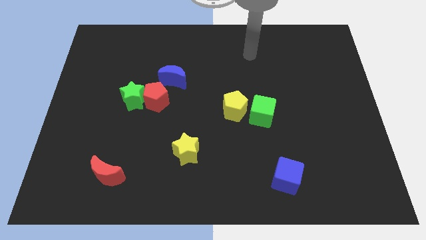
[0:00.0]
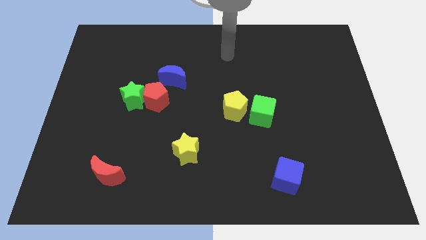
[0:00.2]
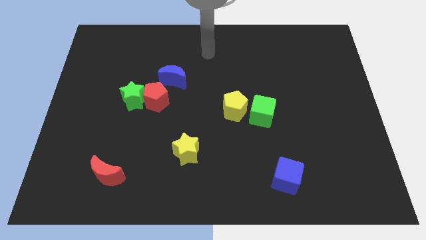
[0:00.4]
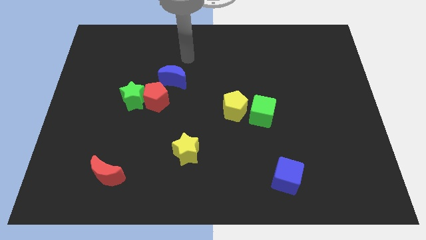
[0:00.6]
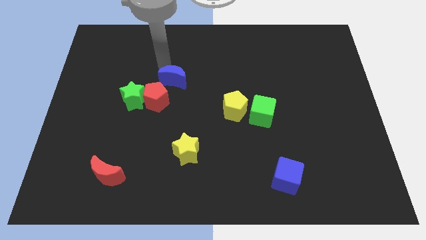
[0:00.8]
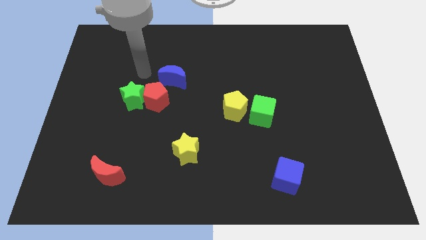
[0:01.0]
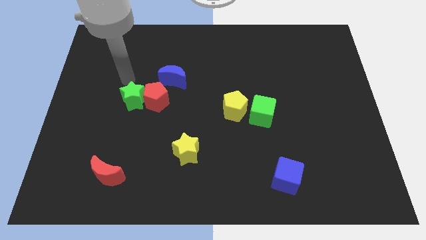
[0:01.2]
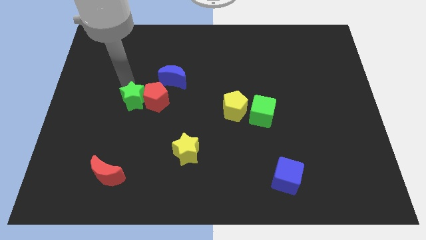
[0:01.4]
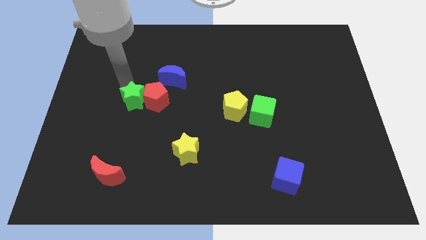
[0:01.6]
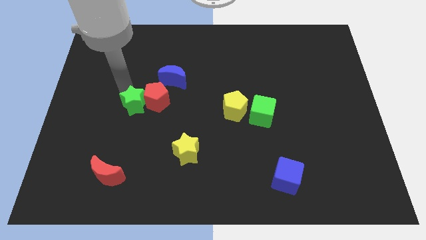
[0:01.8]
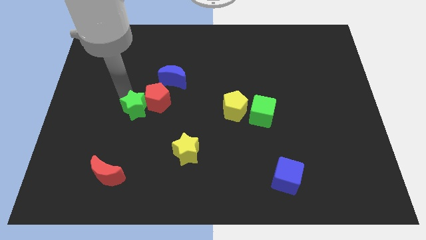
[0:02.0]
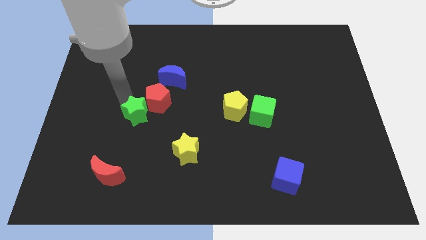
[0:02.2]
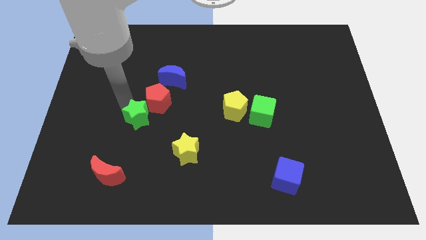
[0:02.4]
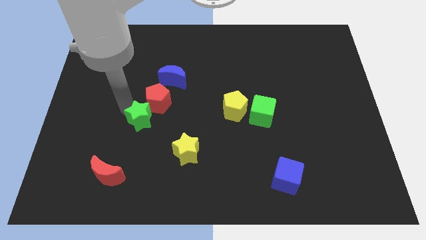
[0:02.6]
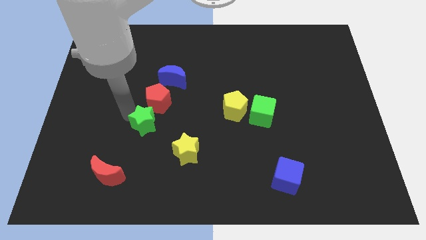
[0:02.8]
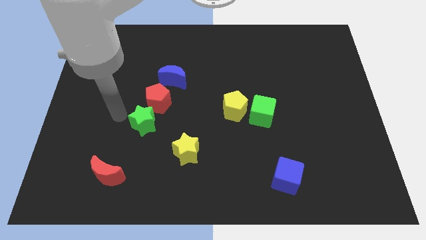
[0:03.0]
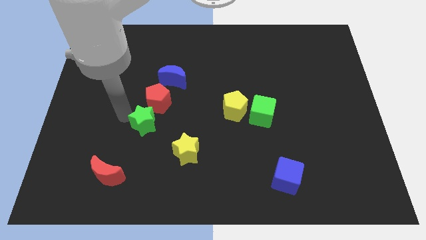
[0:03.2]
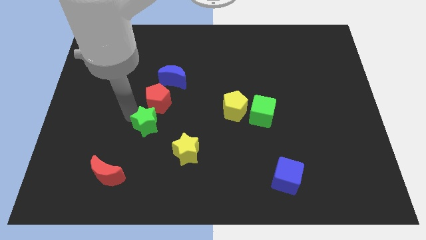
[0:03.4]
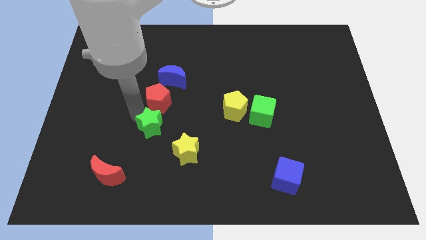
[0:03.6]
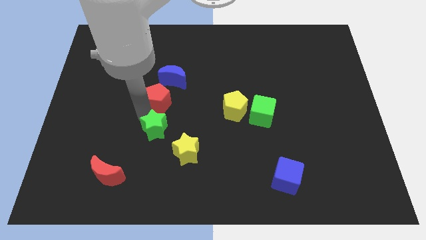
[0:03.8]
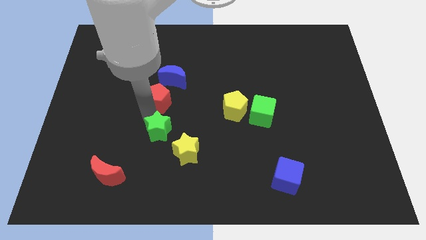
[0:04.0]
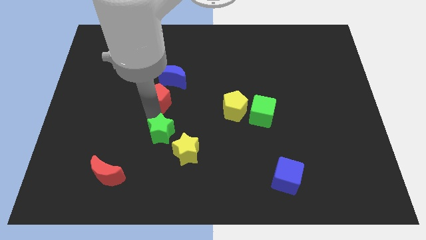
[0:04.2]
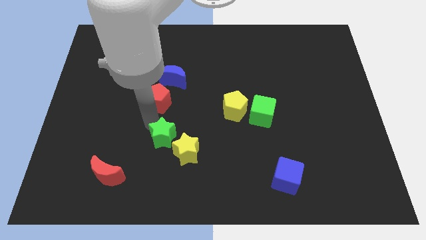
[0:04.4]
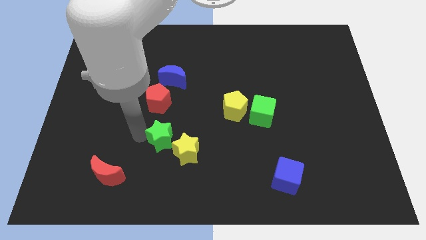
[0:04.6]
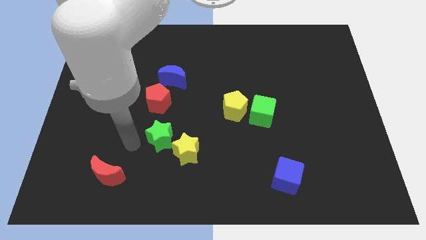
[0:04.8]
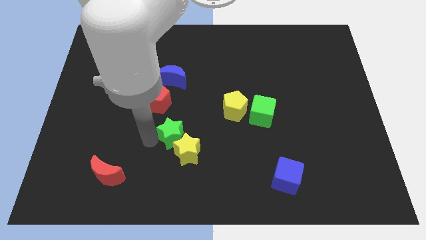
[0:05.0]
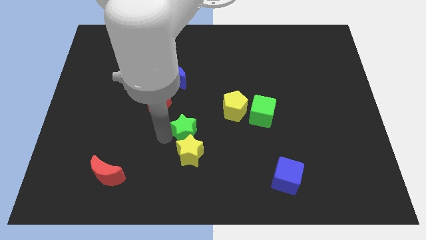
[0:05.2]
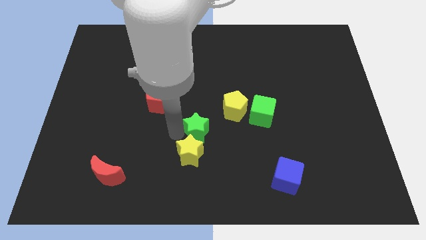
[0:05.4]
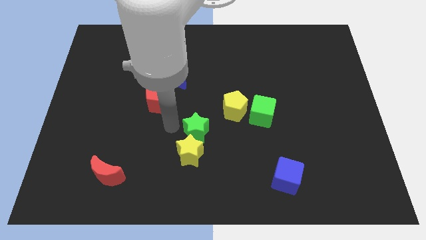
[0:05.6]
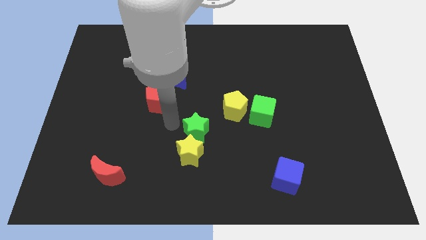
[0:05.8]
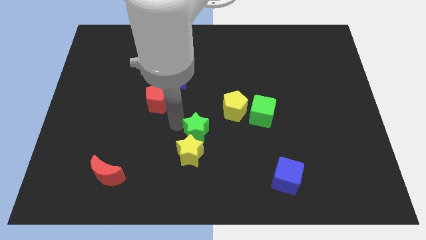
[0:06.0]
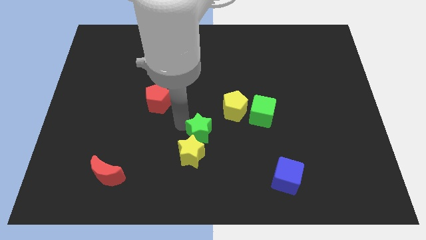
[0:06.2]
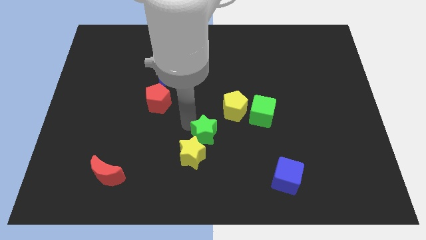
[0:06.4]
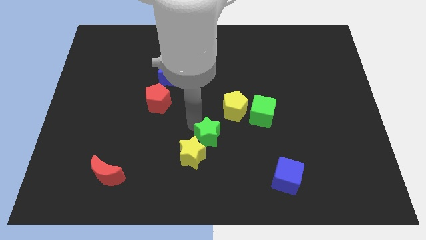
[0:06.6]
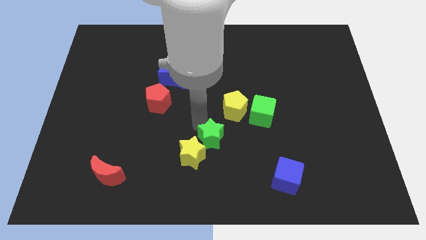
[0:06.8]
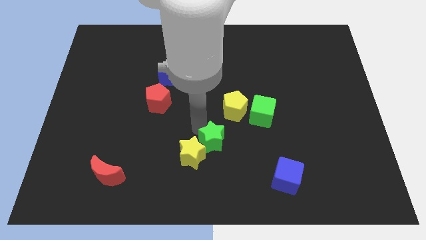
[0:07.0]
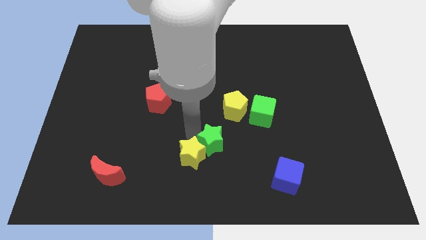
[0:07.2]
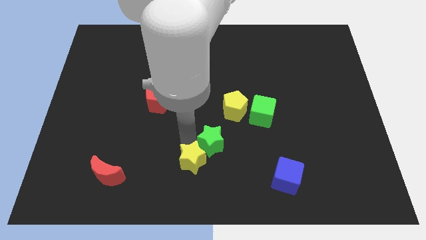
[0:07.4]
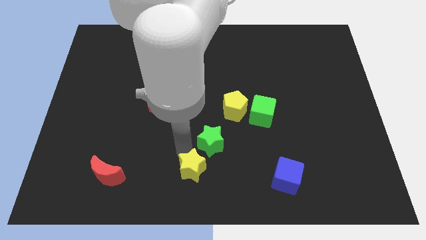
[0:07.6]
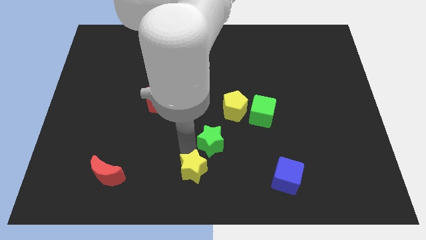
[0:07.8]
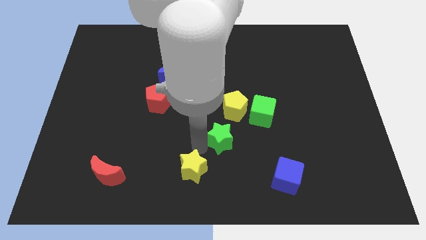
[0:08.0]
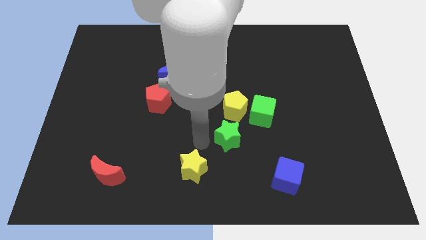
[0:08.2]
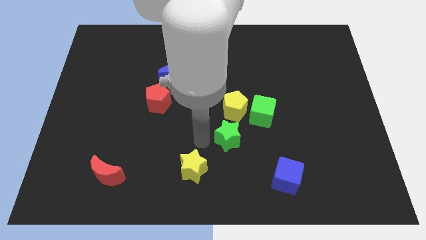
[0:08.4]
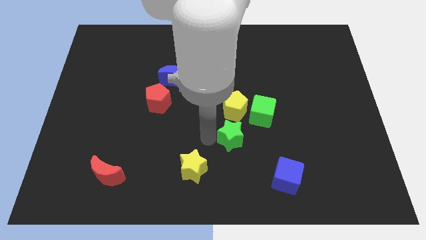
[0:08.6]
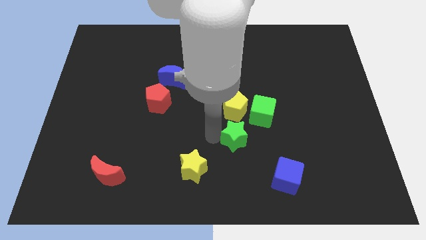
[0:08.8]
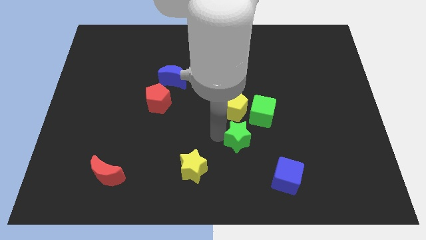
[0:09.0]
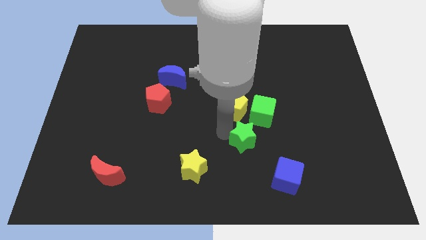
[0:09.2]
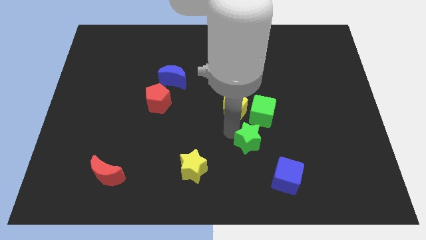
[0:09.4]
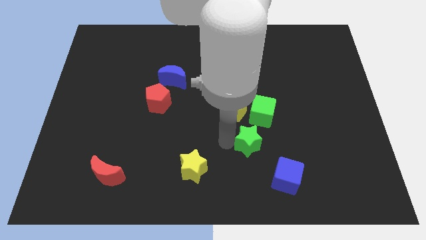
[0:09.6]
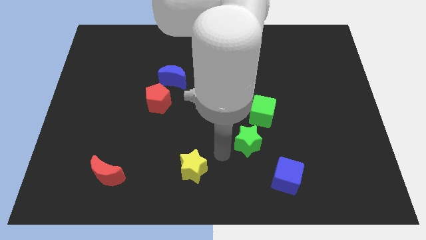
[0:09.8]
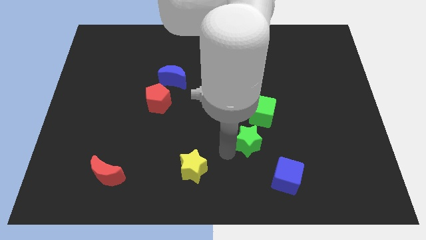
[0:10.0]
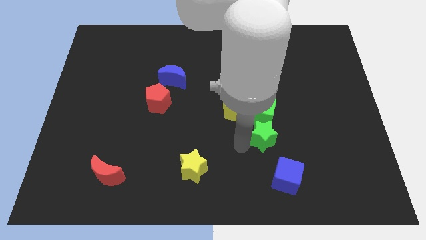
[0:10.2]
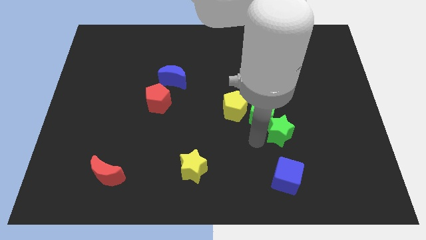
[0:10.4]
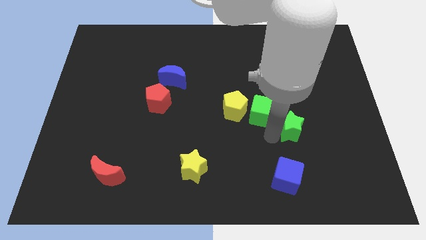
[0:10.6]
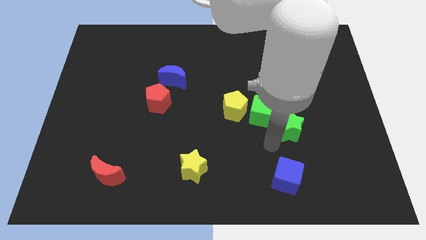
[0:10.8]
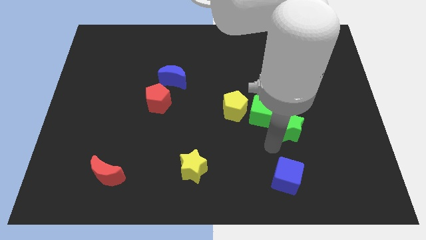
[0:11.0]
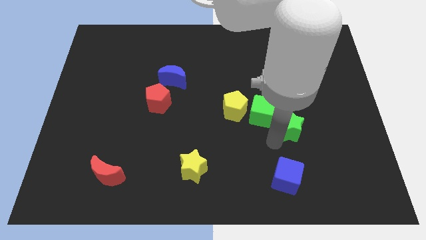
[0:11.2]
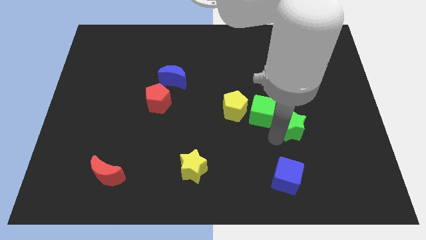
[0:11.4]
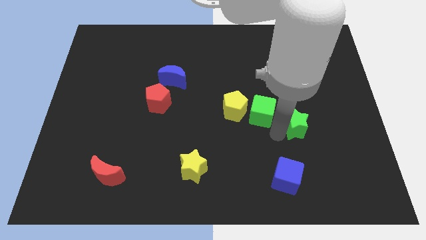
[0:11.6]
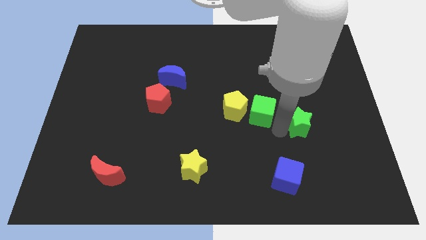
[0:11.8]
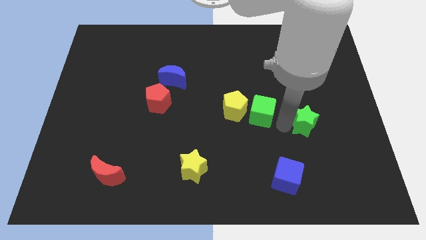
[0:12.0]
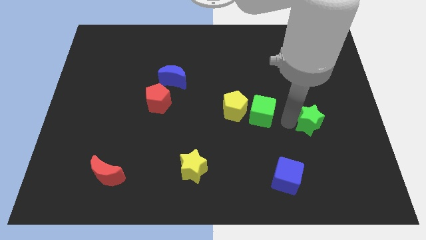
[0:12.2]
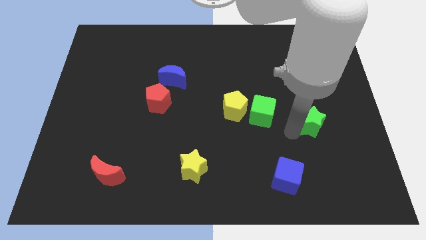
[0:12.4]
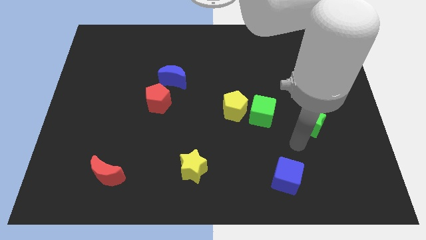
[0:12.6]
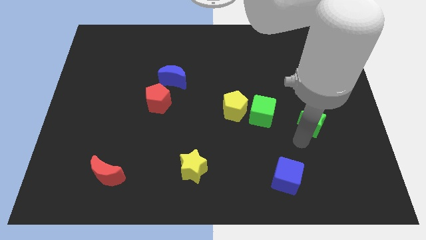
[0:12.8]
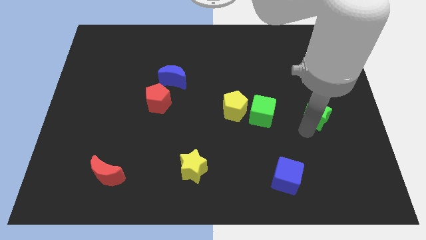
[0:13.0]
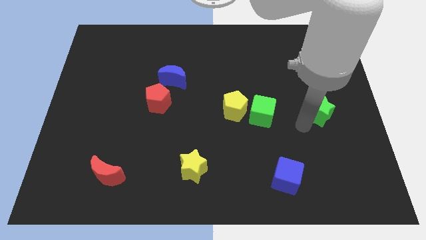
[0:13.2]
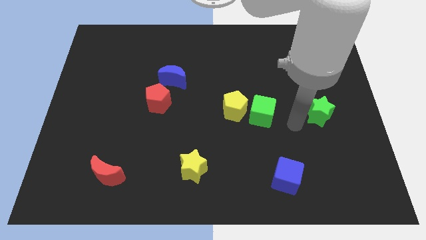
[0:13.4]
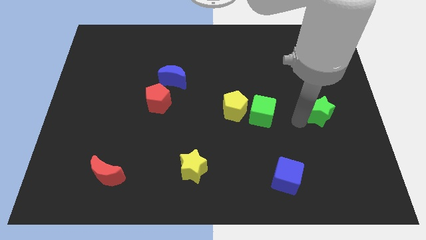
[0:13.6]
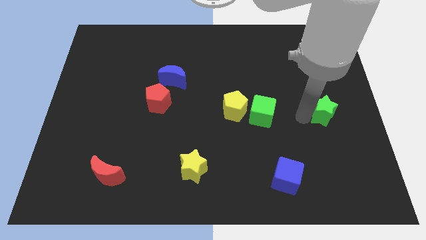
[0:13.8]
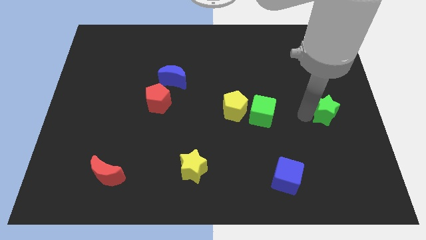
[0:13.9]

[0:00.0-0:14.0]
slide the green star to the right side
